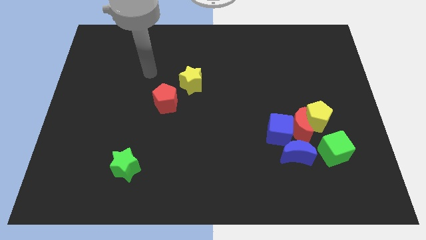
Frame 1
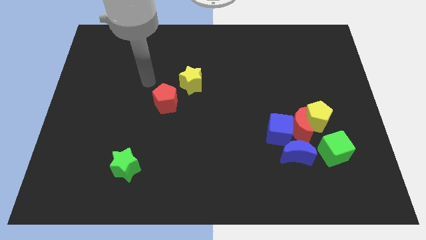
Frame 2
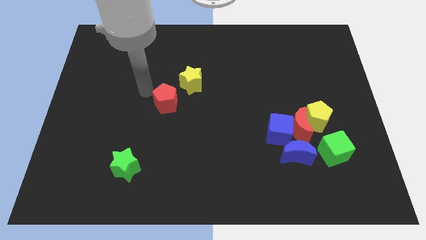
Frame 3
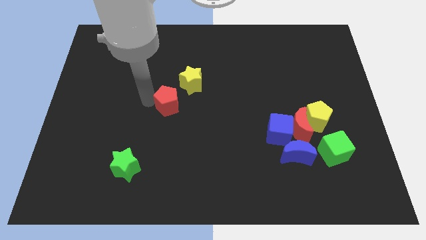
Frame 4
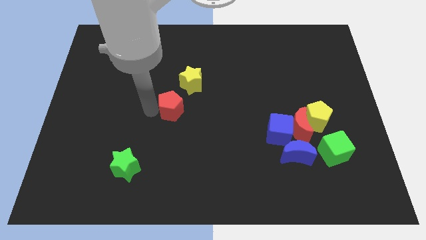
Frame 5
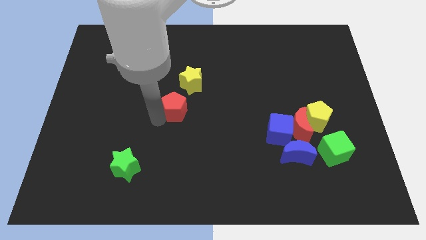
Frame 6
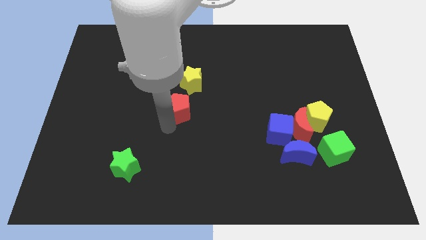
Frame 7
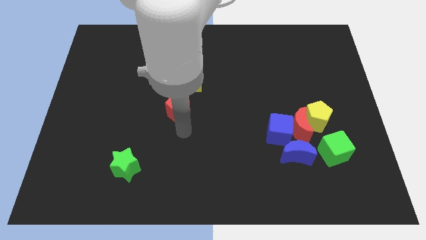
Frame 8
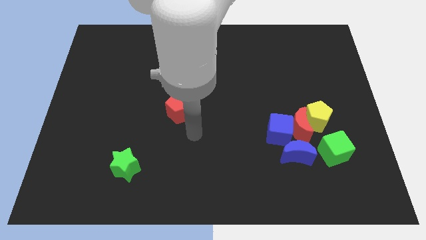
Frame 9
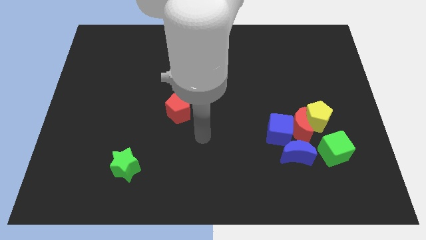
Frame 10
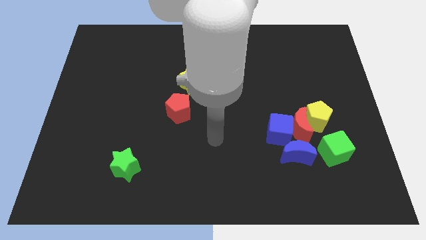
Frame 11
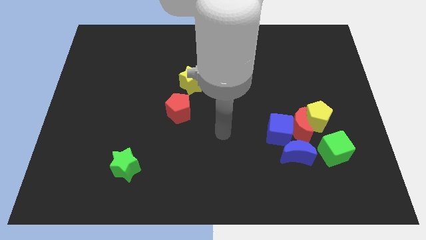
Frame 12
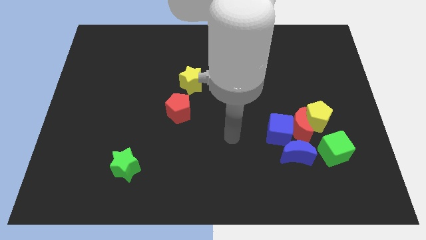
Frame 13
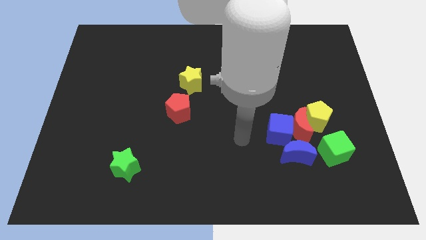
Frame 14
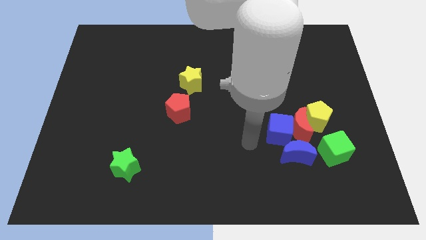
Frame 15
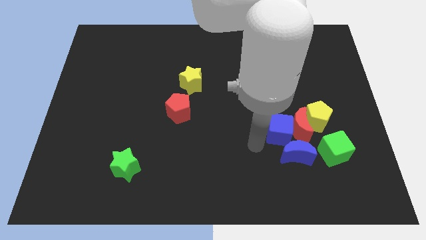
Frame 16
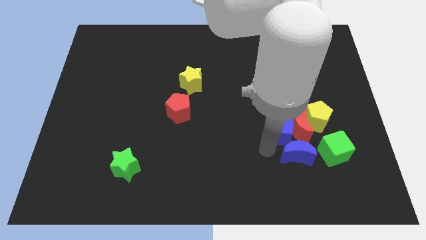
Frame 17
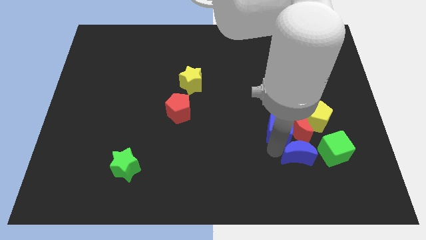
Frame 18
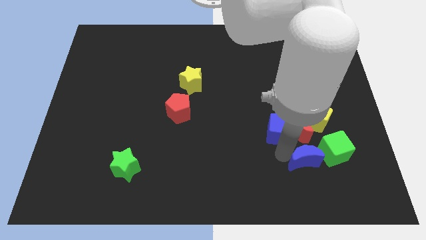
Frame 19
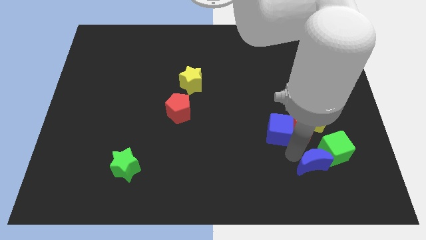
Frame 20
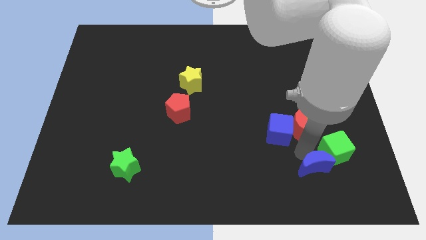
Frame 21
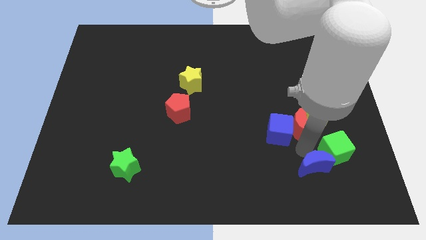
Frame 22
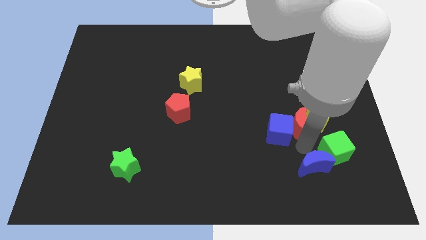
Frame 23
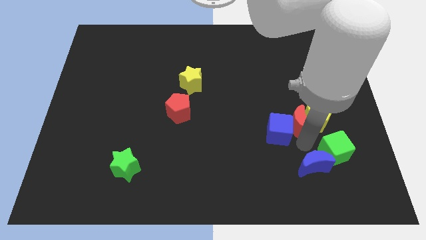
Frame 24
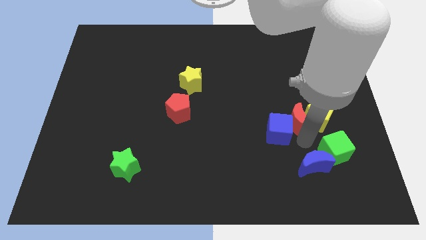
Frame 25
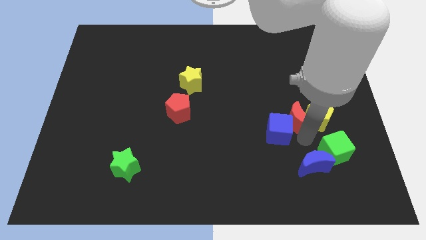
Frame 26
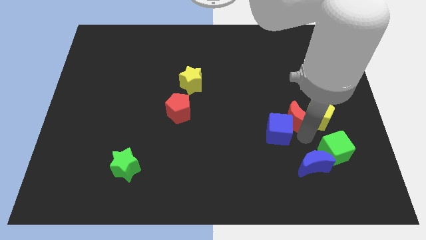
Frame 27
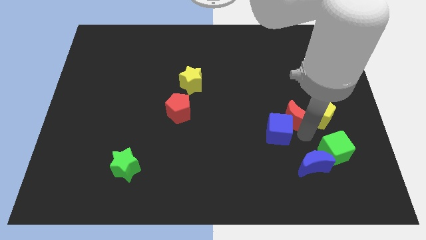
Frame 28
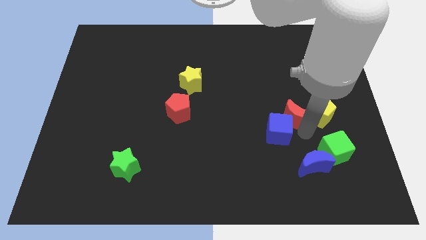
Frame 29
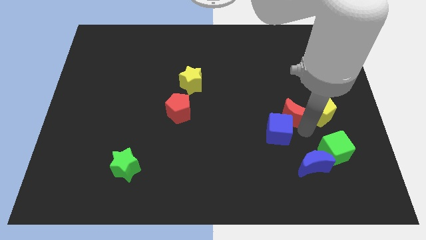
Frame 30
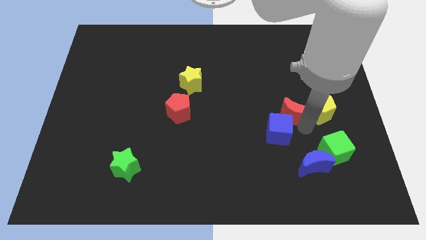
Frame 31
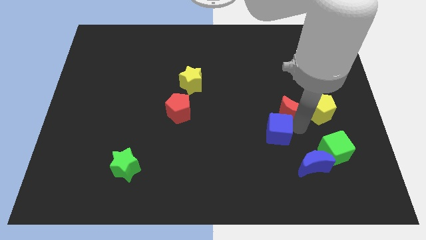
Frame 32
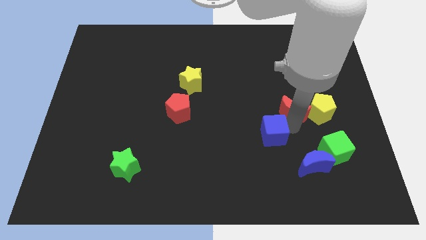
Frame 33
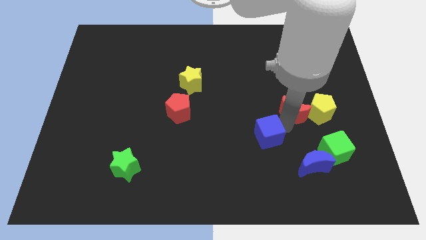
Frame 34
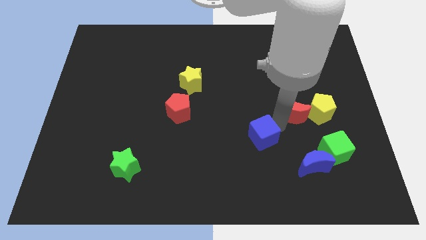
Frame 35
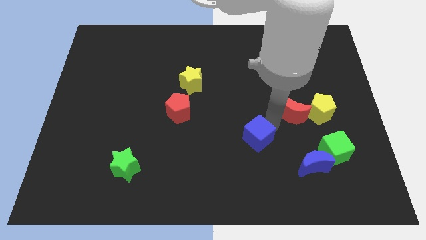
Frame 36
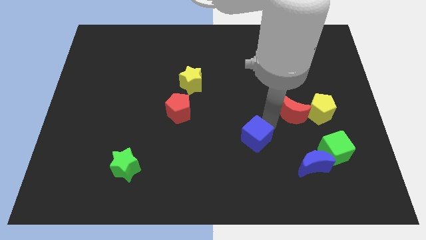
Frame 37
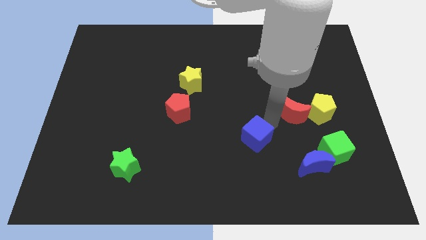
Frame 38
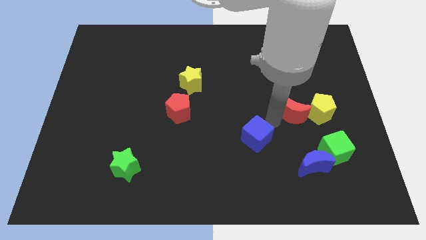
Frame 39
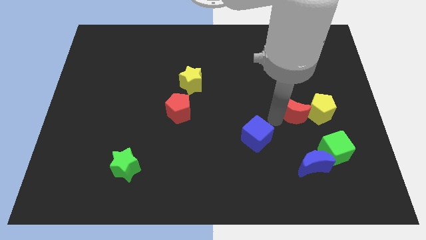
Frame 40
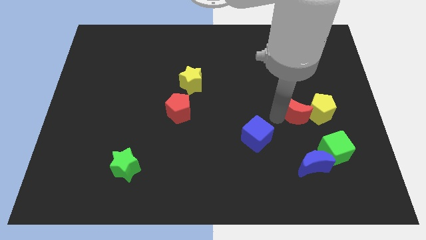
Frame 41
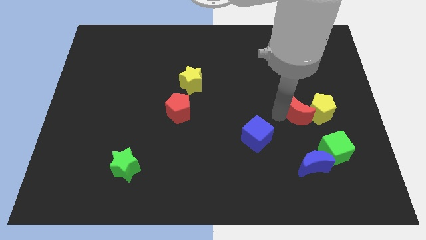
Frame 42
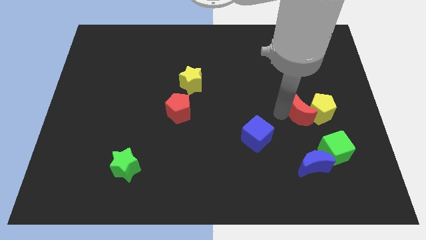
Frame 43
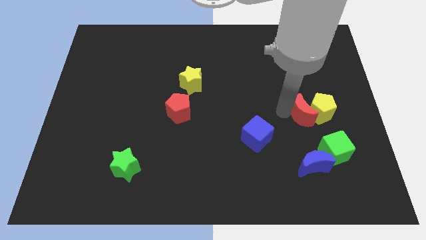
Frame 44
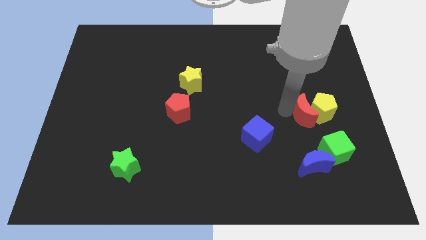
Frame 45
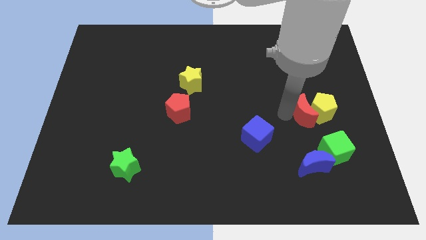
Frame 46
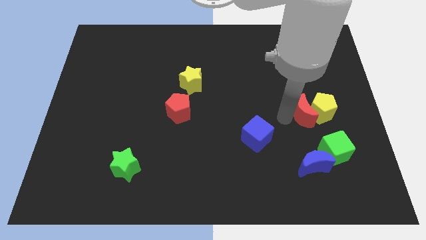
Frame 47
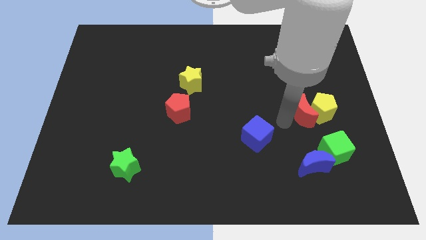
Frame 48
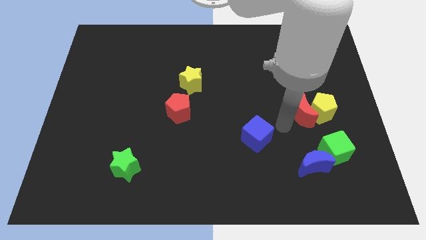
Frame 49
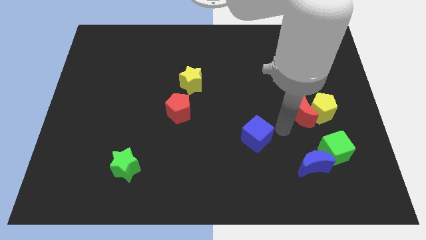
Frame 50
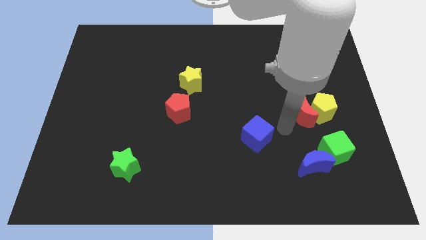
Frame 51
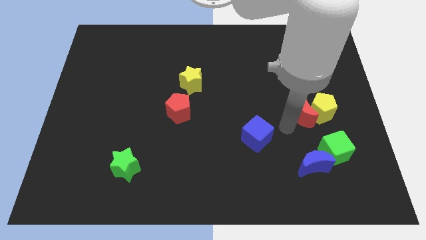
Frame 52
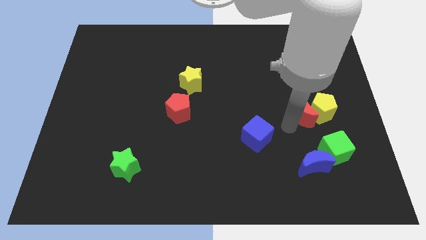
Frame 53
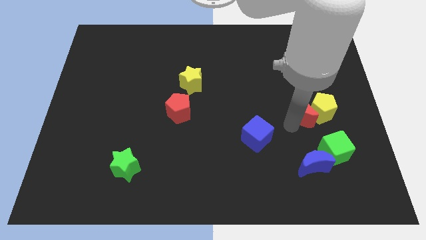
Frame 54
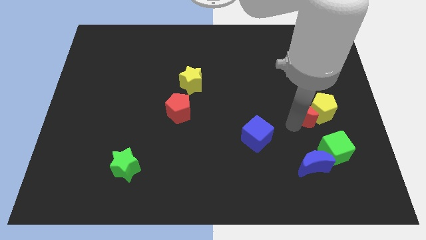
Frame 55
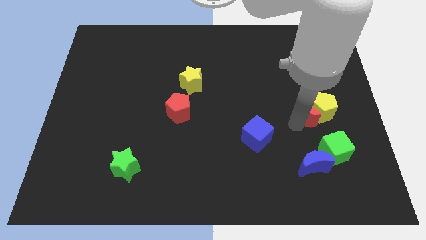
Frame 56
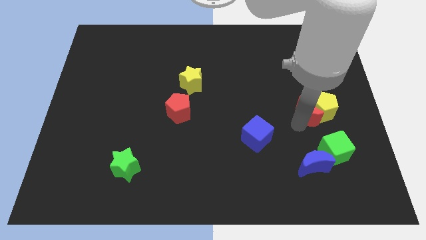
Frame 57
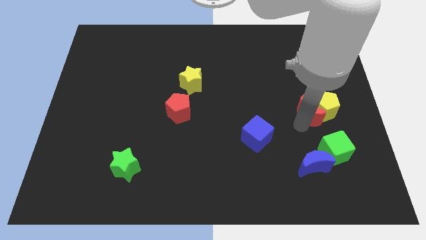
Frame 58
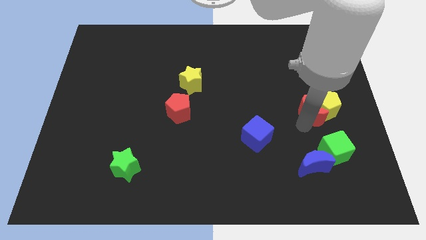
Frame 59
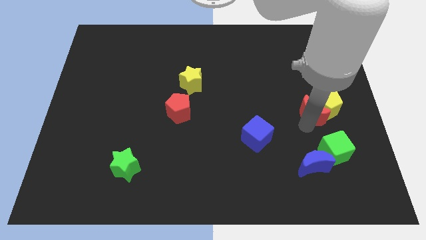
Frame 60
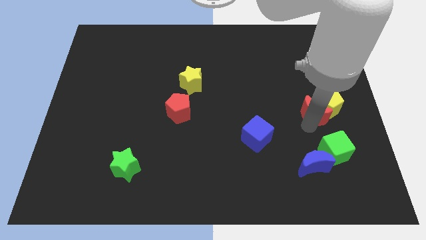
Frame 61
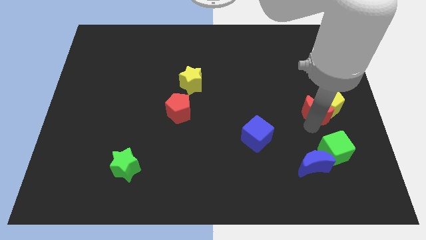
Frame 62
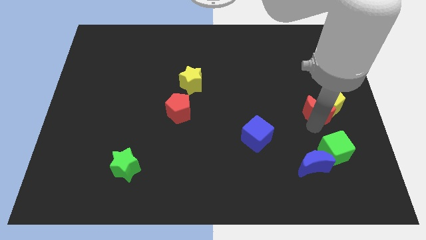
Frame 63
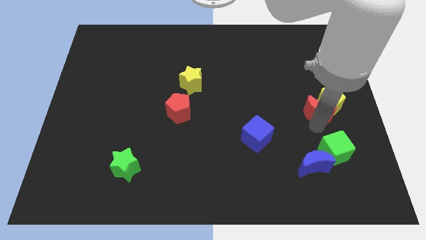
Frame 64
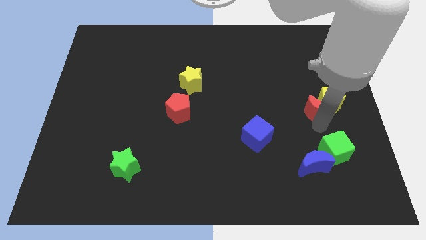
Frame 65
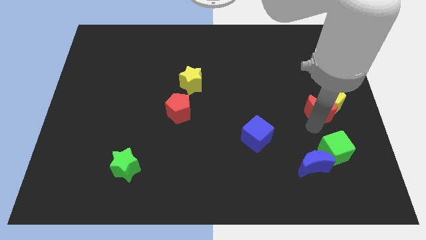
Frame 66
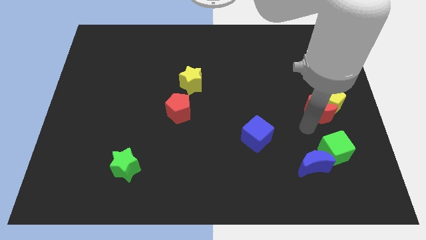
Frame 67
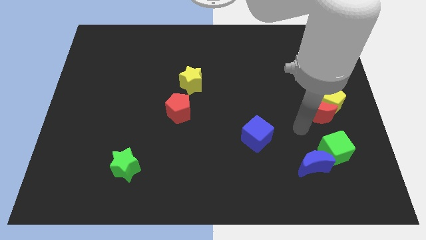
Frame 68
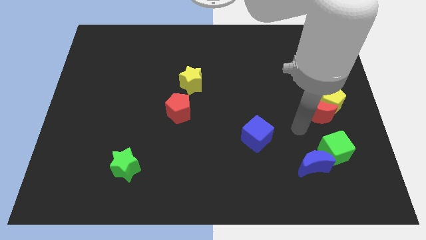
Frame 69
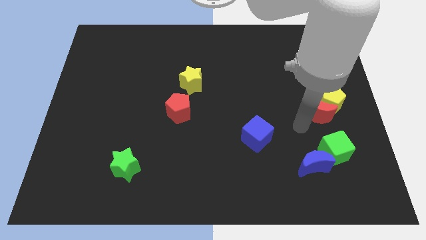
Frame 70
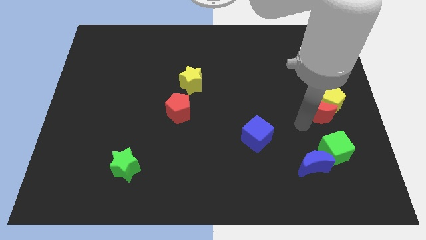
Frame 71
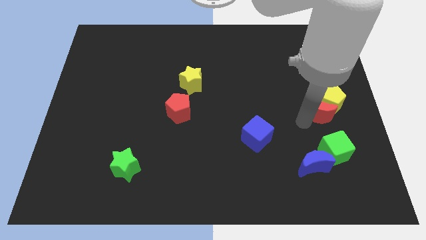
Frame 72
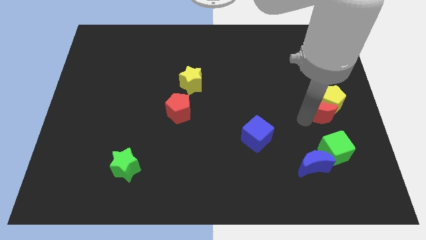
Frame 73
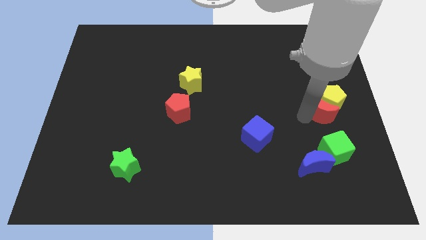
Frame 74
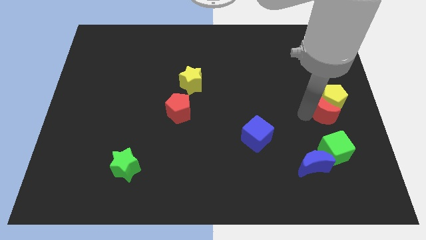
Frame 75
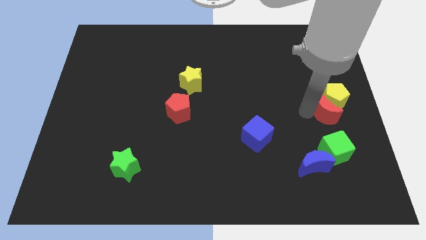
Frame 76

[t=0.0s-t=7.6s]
slide the red moon to the right side

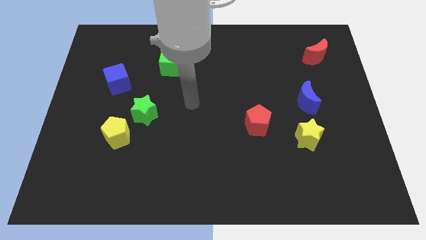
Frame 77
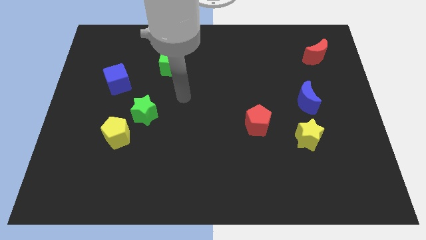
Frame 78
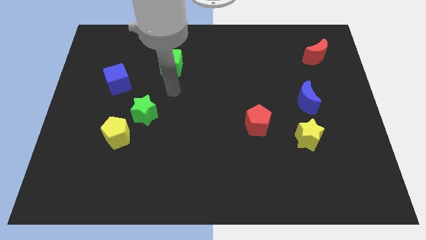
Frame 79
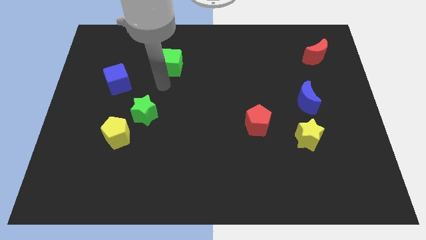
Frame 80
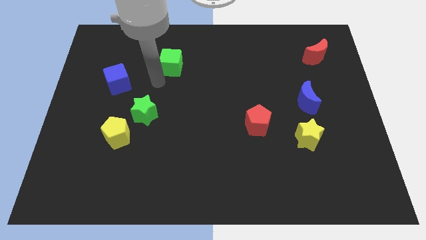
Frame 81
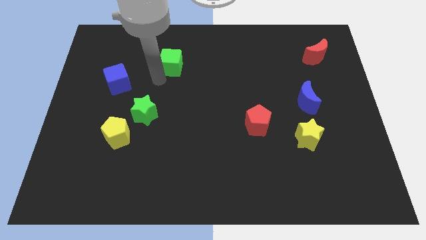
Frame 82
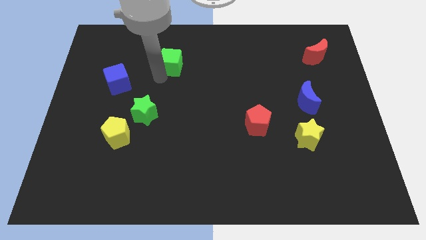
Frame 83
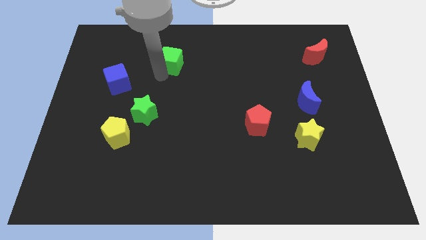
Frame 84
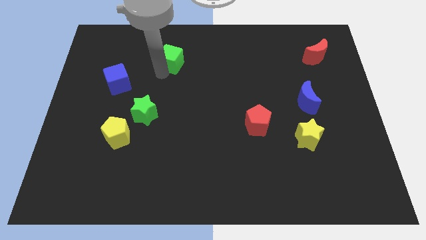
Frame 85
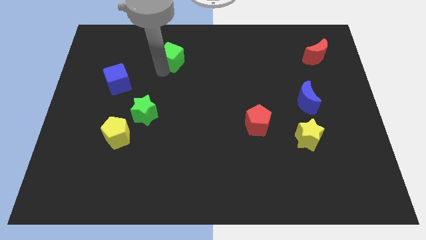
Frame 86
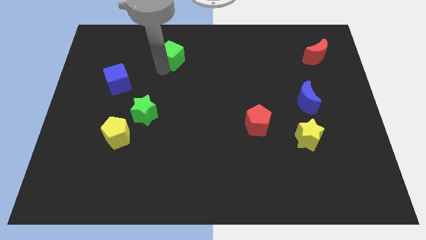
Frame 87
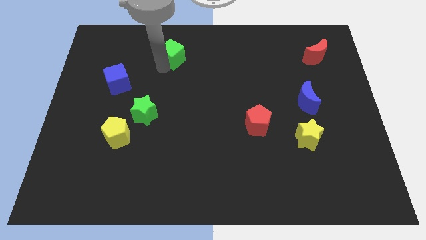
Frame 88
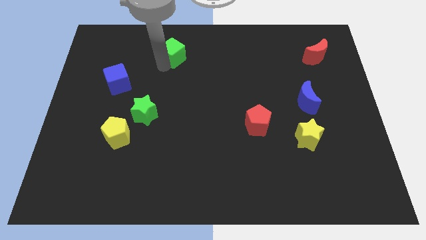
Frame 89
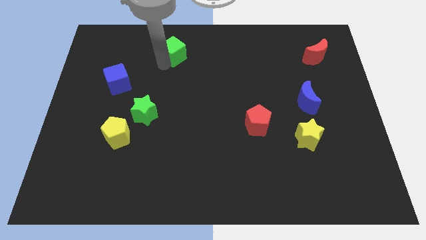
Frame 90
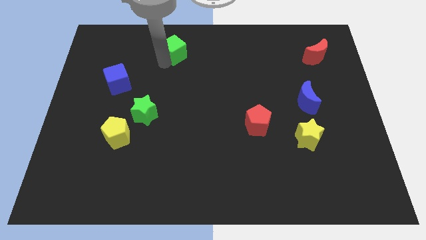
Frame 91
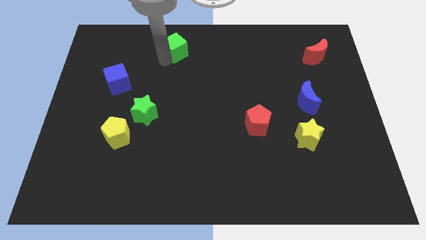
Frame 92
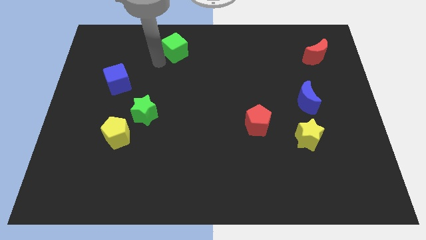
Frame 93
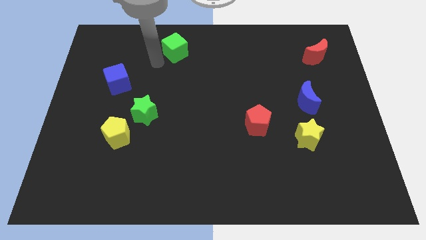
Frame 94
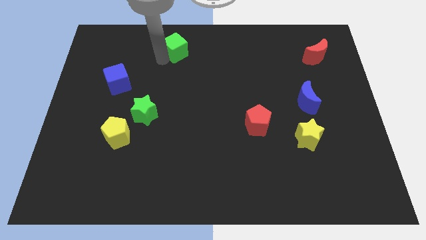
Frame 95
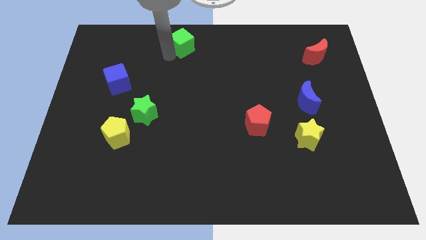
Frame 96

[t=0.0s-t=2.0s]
push the green cube to the towards your base
